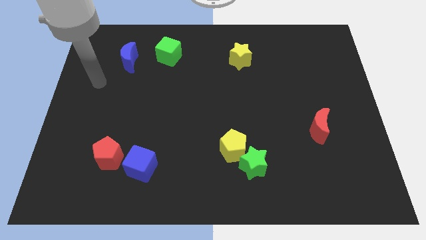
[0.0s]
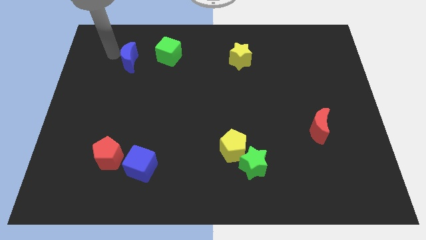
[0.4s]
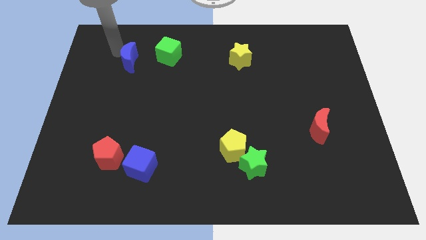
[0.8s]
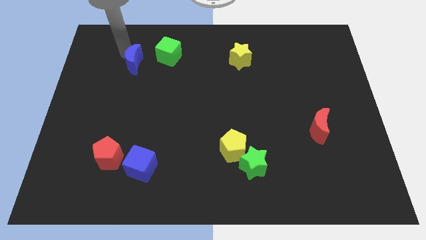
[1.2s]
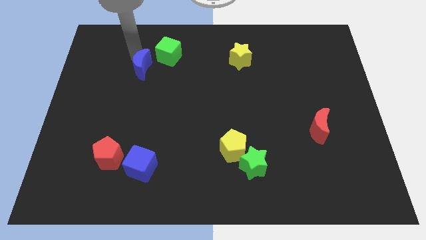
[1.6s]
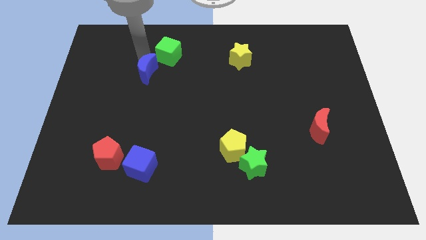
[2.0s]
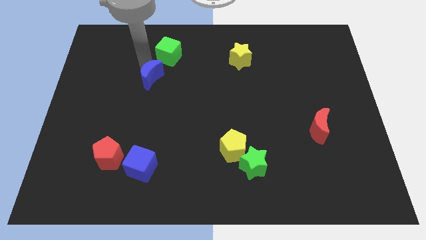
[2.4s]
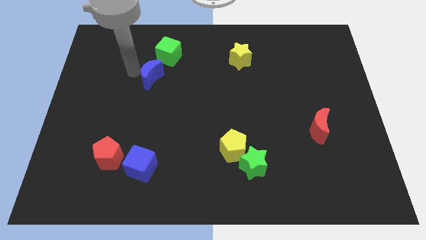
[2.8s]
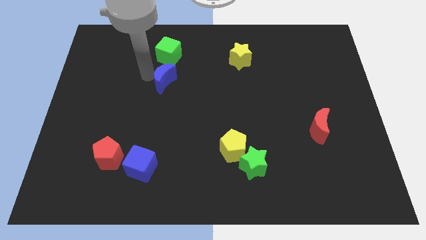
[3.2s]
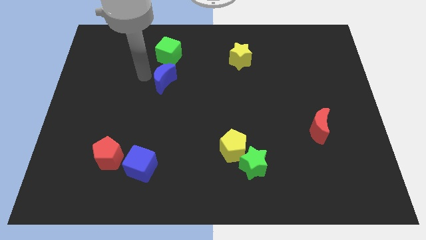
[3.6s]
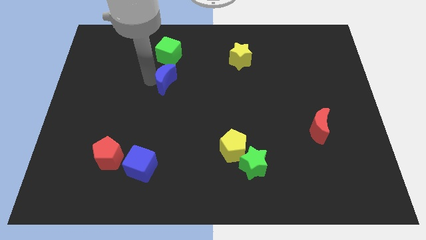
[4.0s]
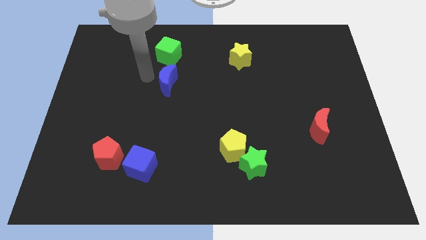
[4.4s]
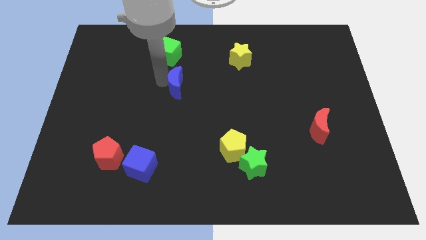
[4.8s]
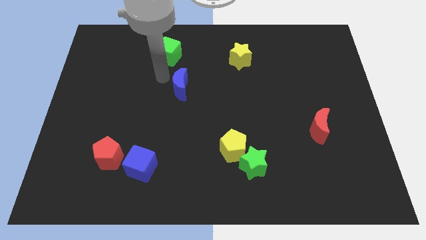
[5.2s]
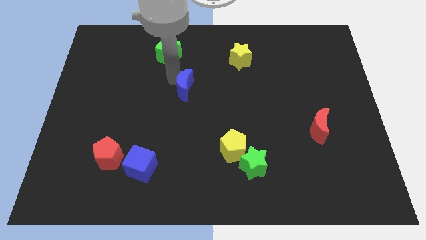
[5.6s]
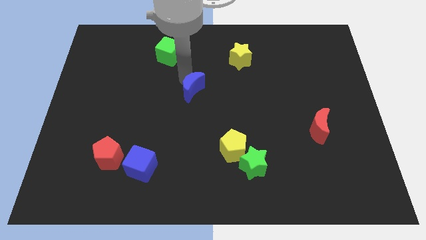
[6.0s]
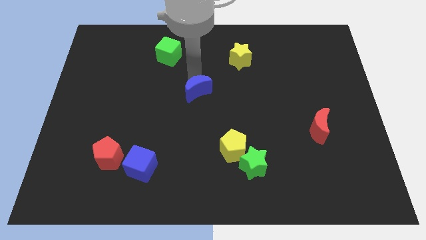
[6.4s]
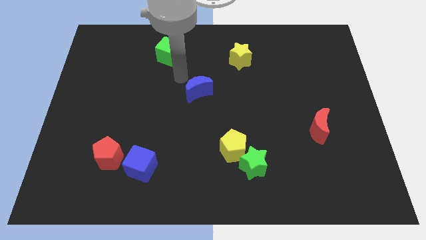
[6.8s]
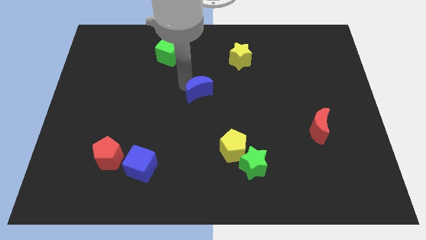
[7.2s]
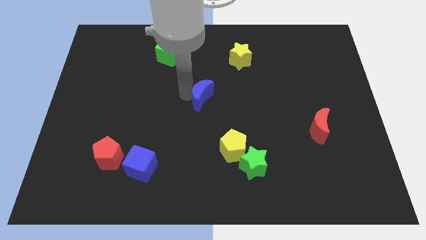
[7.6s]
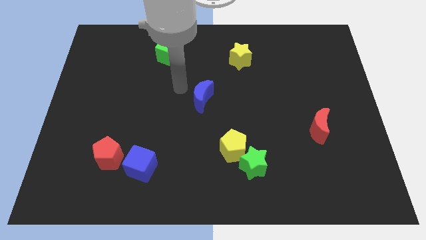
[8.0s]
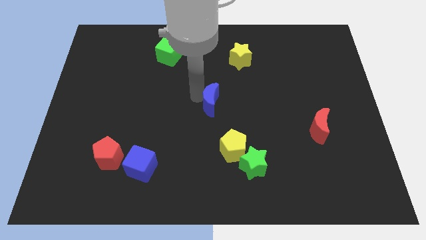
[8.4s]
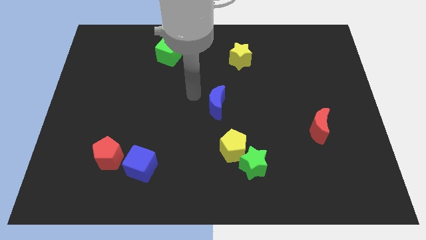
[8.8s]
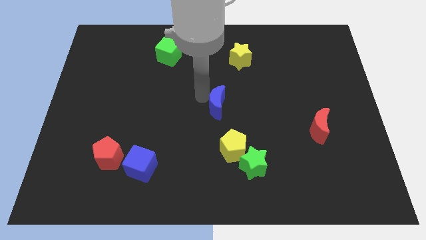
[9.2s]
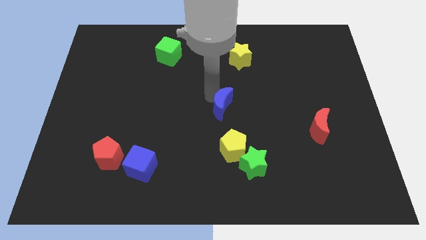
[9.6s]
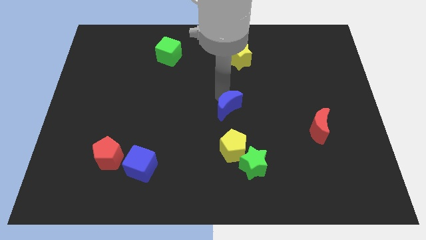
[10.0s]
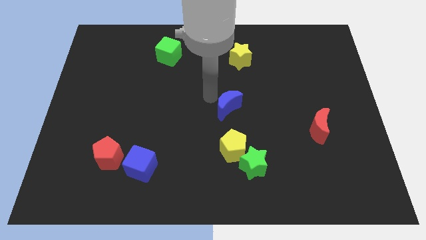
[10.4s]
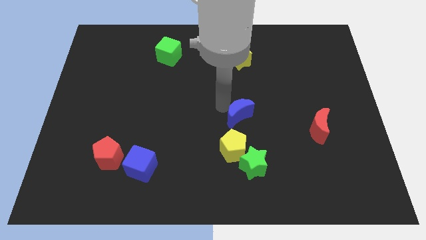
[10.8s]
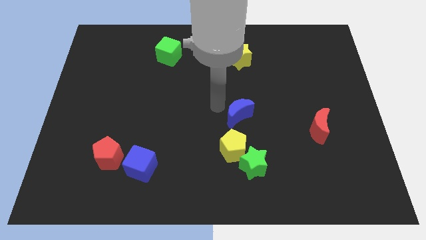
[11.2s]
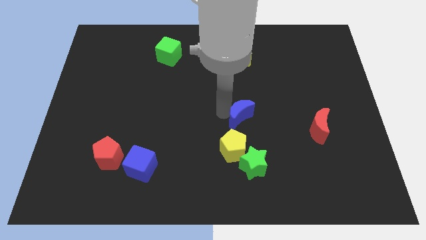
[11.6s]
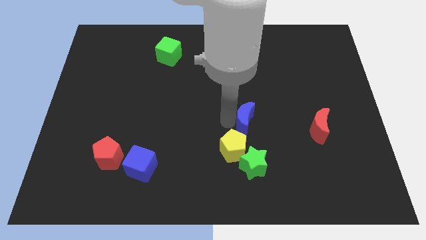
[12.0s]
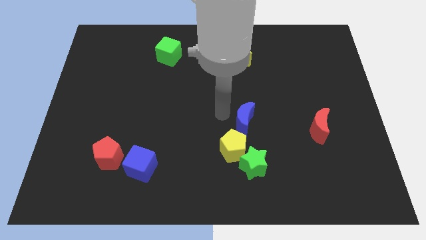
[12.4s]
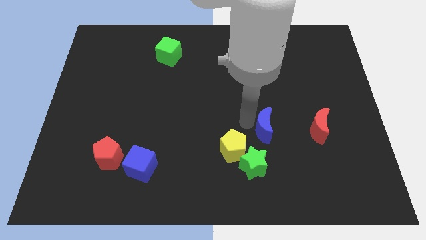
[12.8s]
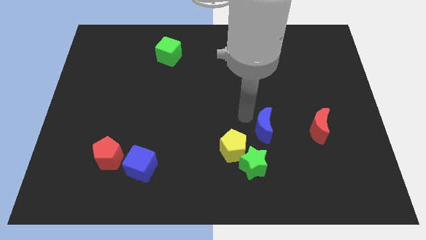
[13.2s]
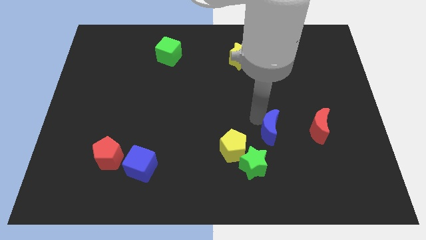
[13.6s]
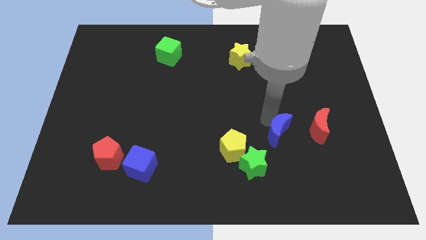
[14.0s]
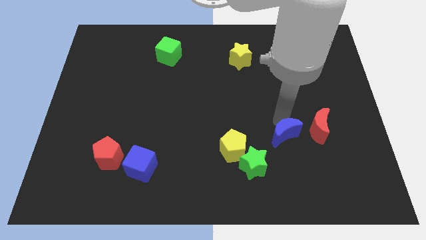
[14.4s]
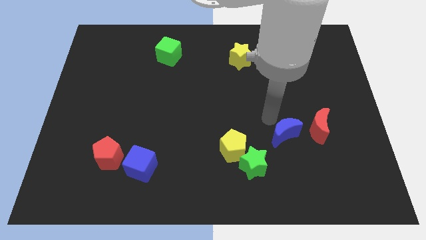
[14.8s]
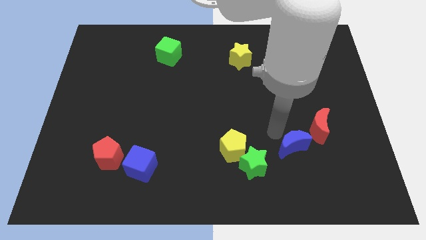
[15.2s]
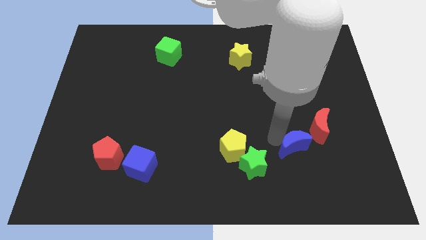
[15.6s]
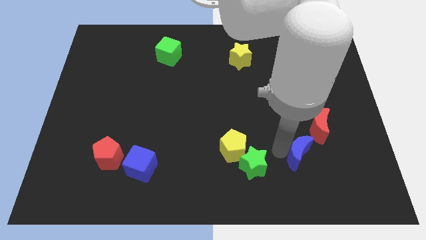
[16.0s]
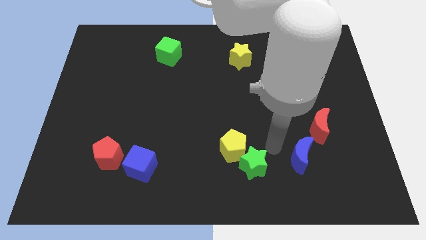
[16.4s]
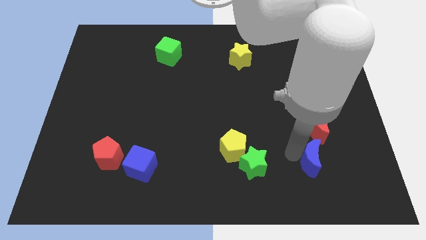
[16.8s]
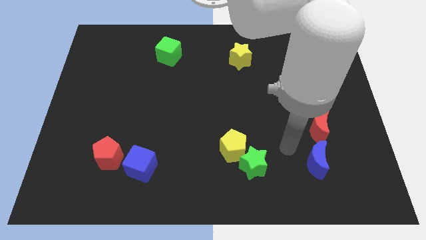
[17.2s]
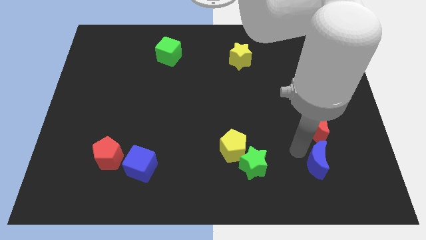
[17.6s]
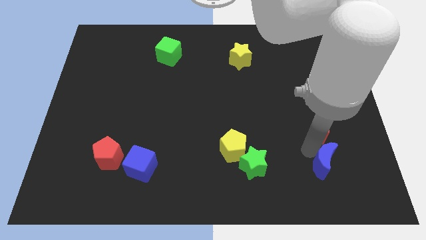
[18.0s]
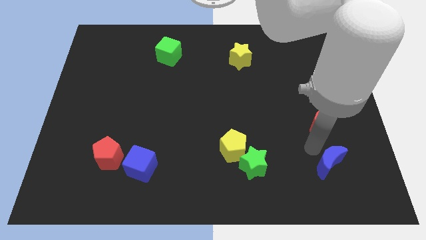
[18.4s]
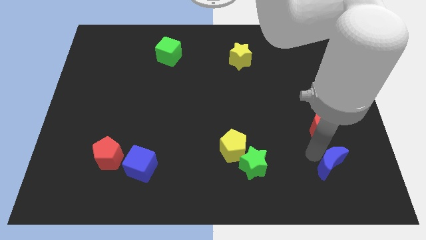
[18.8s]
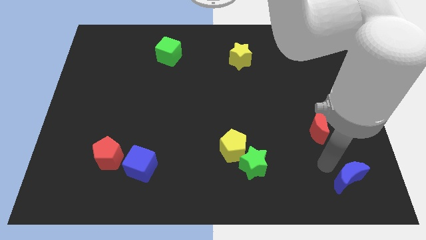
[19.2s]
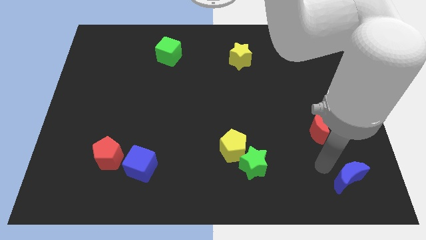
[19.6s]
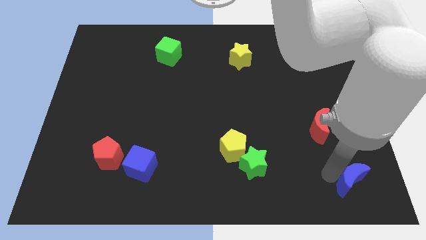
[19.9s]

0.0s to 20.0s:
put the blue moon to the bottom right

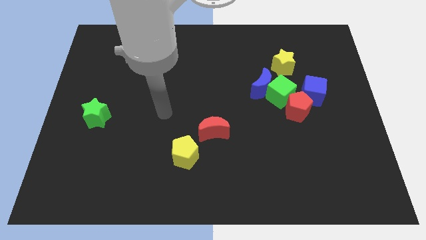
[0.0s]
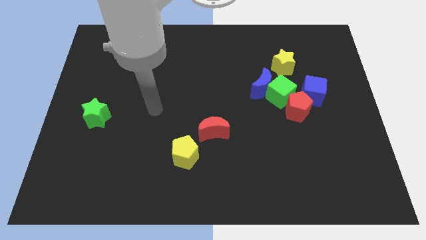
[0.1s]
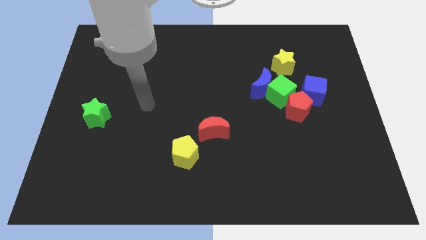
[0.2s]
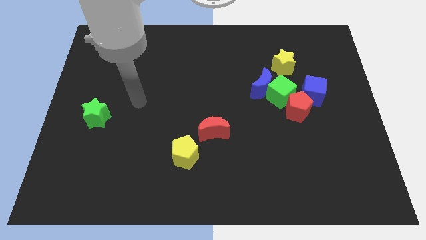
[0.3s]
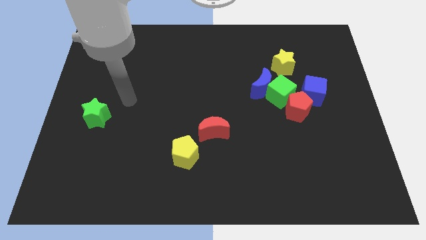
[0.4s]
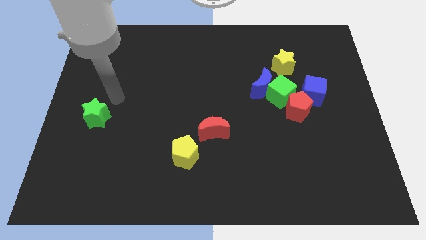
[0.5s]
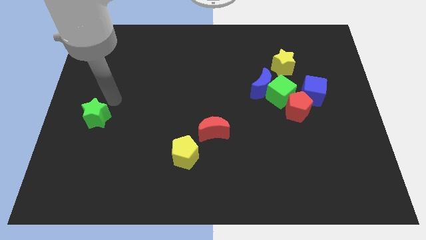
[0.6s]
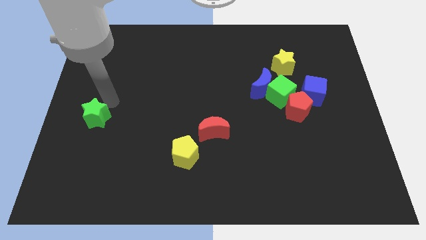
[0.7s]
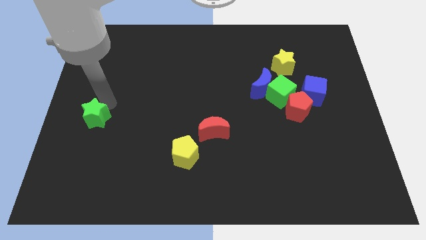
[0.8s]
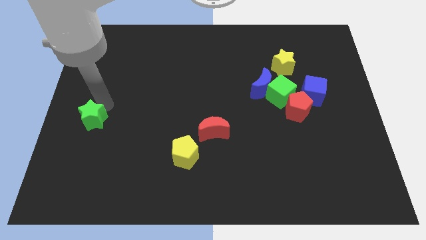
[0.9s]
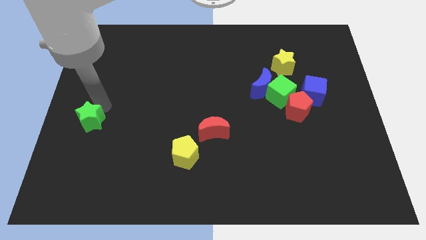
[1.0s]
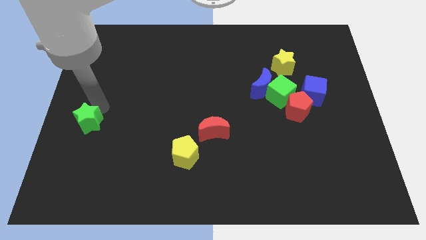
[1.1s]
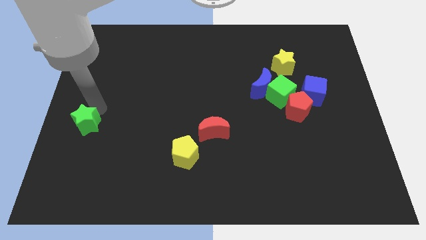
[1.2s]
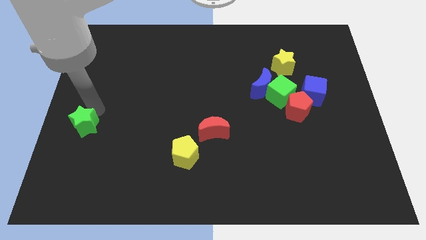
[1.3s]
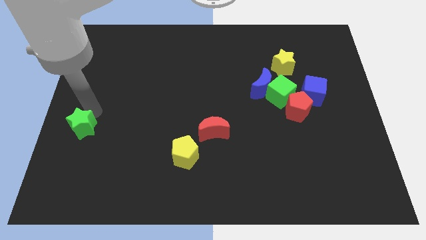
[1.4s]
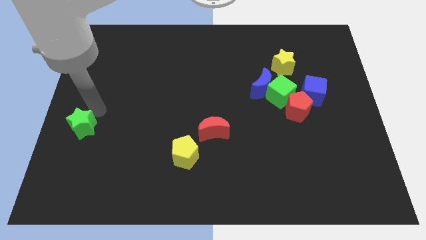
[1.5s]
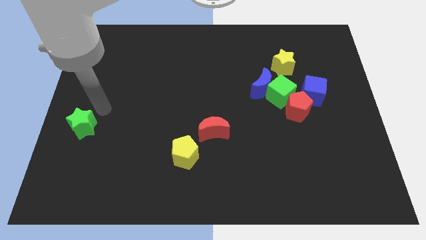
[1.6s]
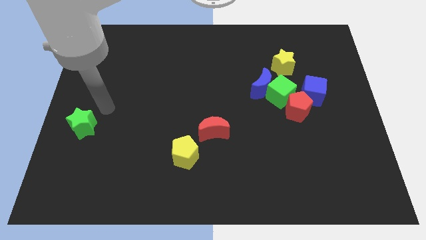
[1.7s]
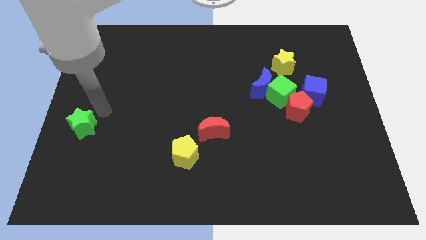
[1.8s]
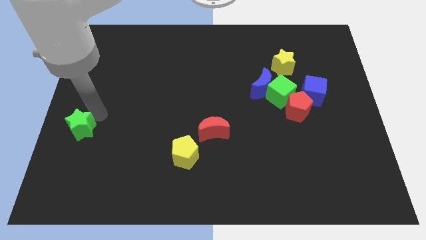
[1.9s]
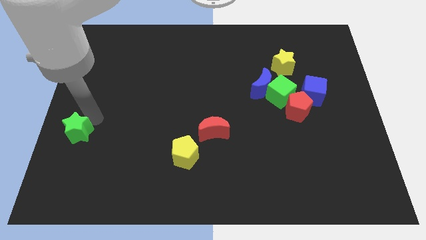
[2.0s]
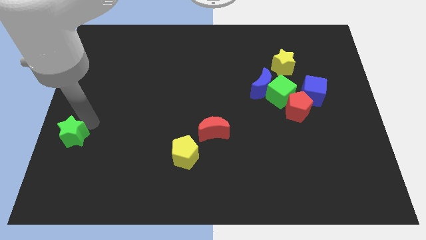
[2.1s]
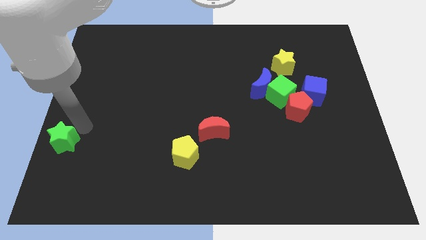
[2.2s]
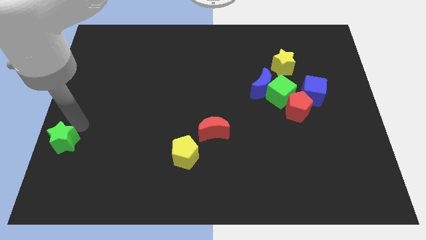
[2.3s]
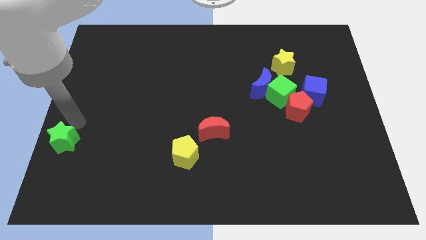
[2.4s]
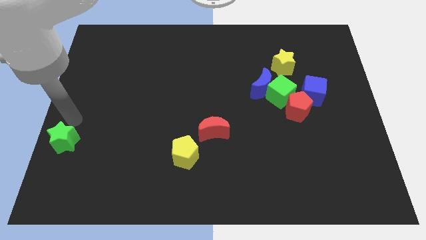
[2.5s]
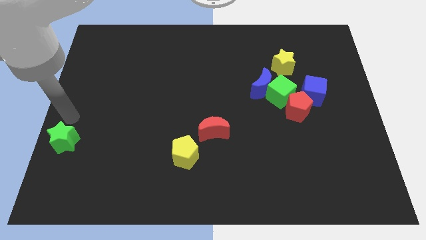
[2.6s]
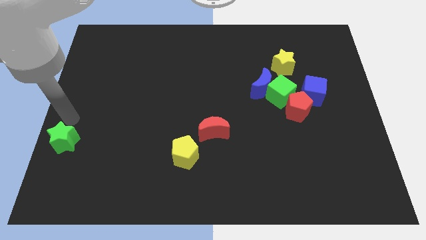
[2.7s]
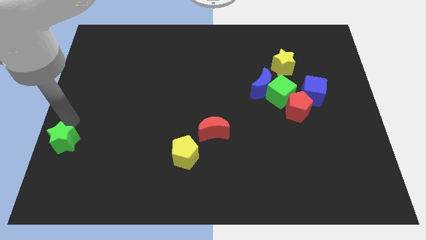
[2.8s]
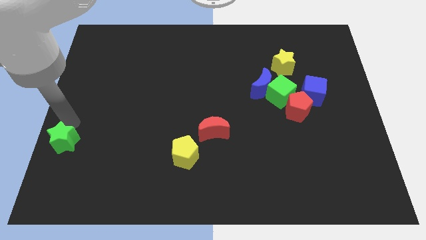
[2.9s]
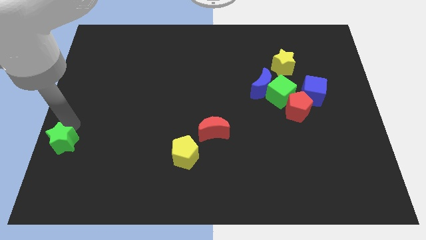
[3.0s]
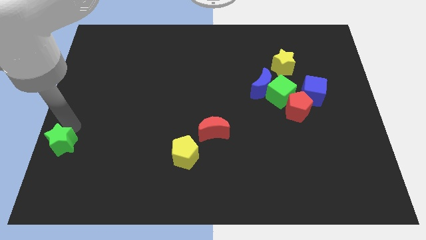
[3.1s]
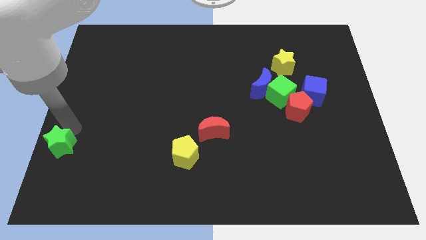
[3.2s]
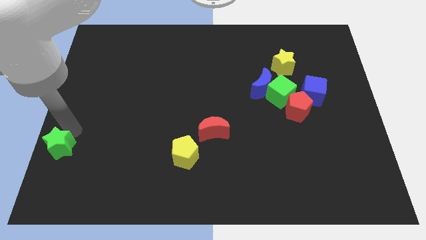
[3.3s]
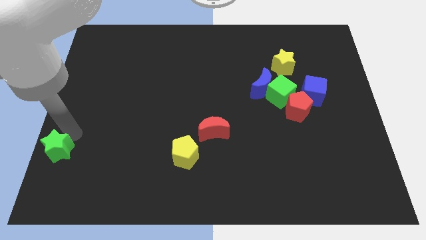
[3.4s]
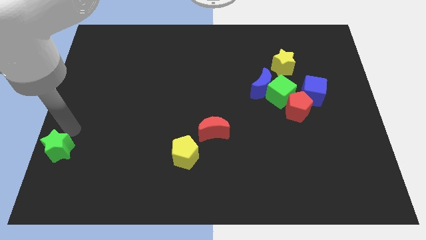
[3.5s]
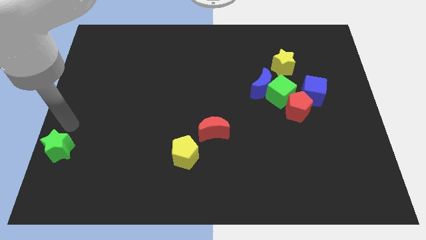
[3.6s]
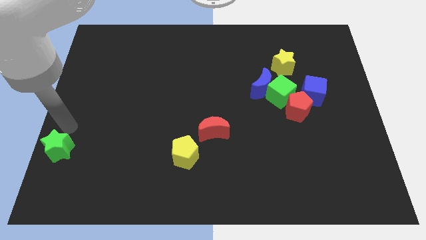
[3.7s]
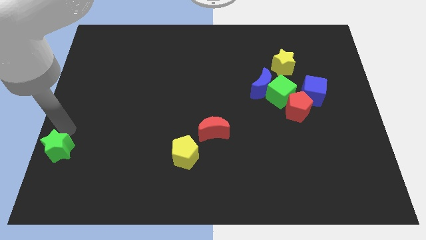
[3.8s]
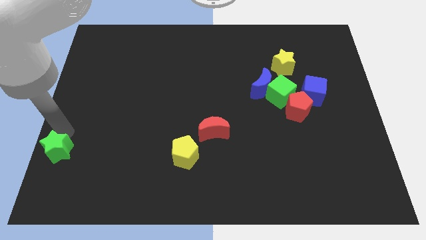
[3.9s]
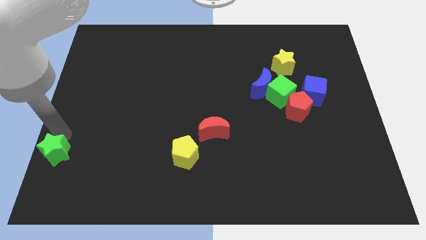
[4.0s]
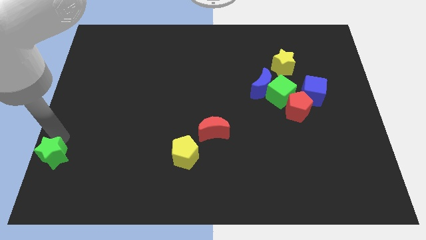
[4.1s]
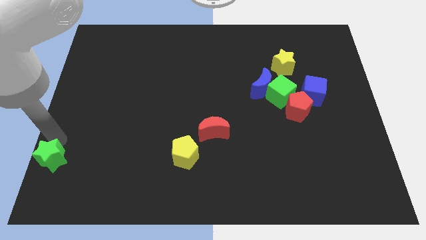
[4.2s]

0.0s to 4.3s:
put the green star to the bottom left of the board
